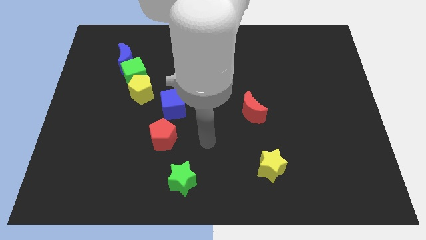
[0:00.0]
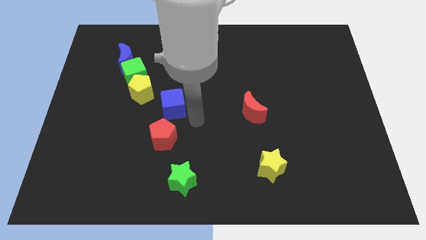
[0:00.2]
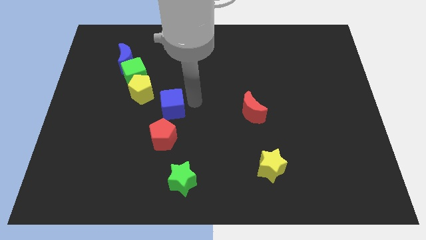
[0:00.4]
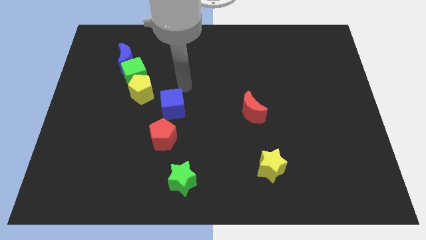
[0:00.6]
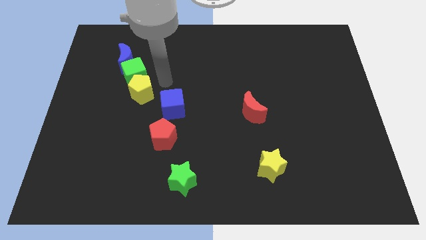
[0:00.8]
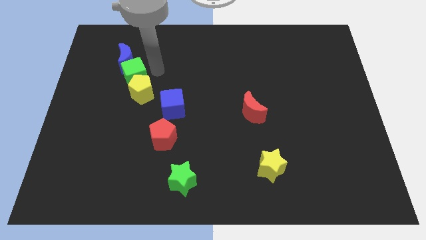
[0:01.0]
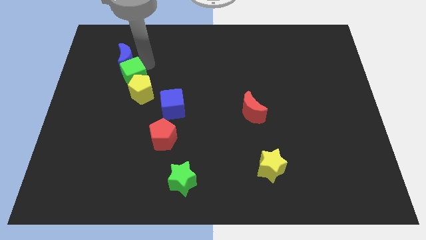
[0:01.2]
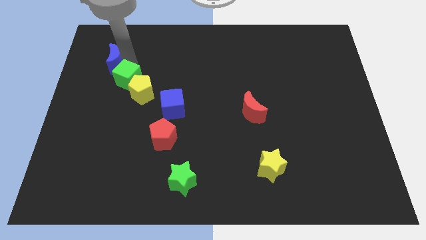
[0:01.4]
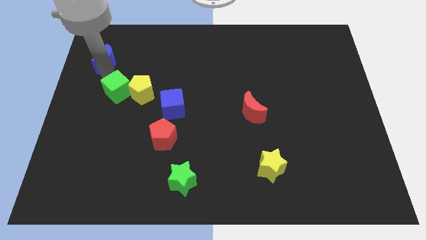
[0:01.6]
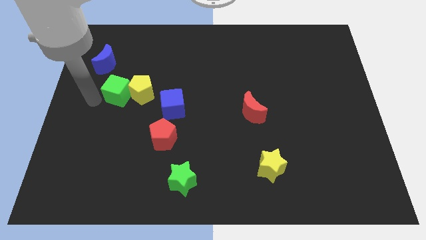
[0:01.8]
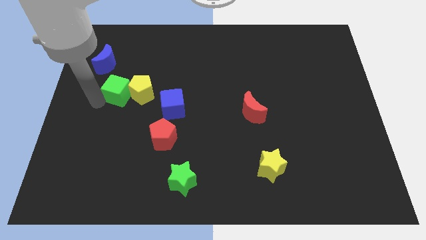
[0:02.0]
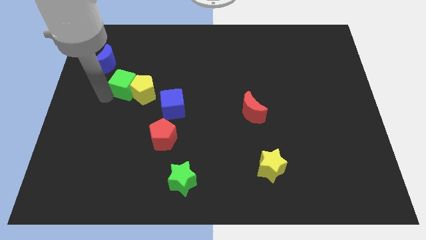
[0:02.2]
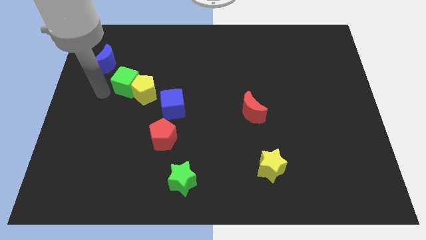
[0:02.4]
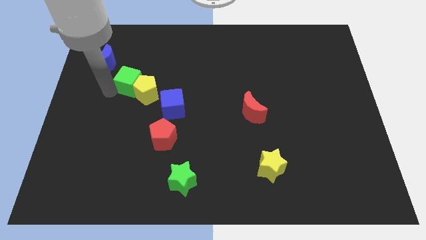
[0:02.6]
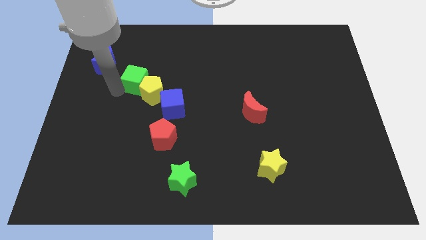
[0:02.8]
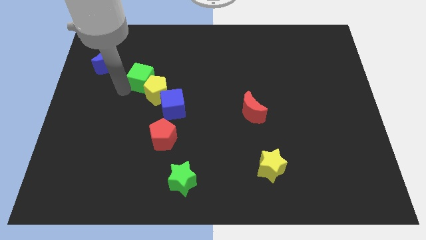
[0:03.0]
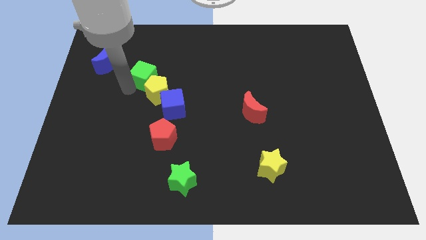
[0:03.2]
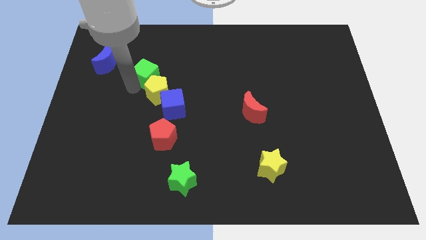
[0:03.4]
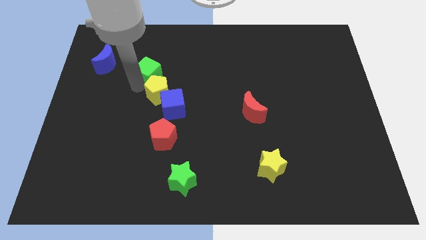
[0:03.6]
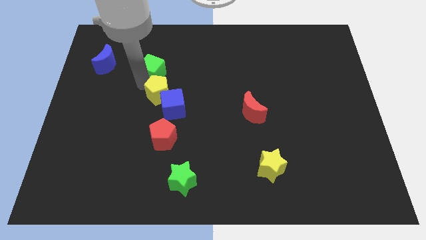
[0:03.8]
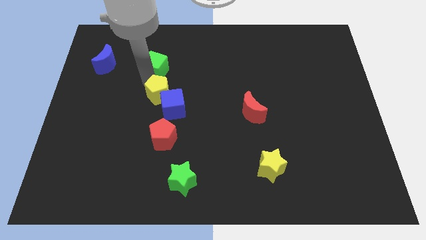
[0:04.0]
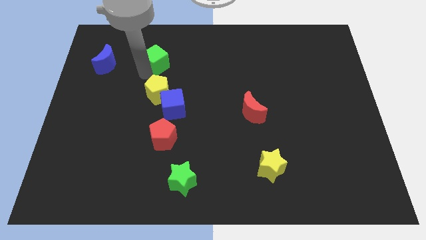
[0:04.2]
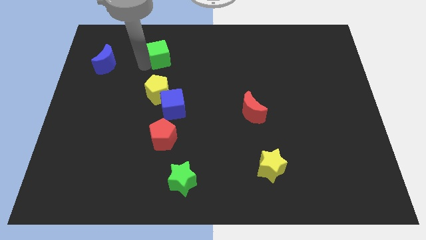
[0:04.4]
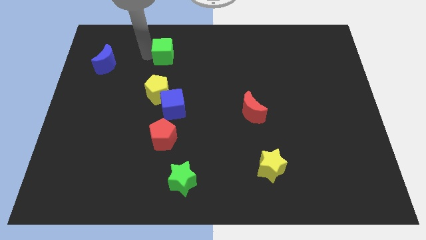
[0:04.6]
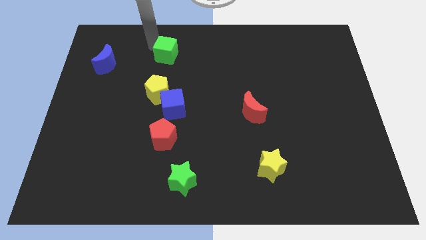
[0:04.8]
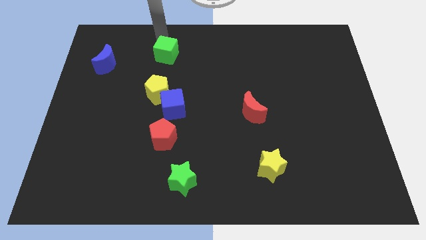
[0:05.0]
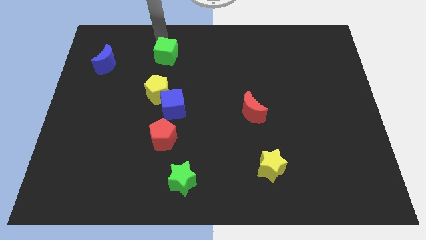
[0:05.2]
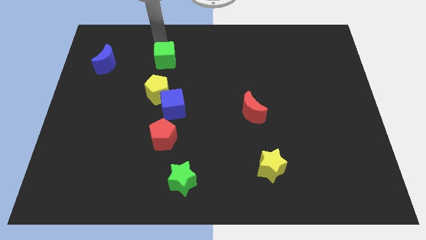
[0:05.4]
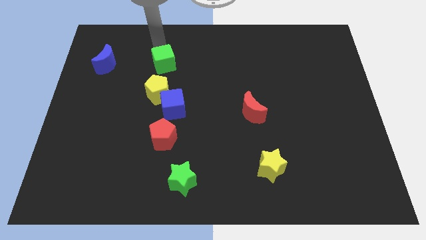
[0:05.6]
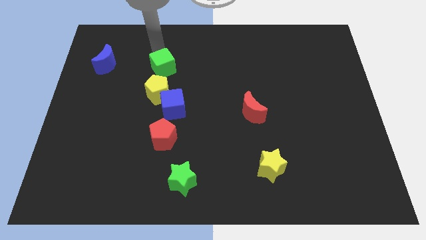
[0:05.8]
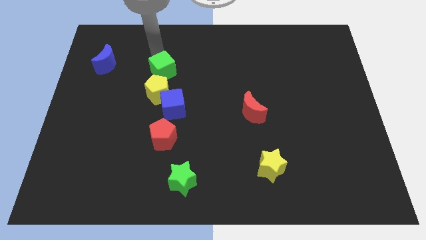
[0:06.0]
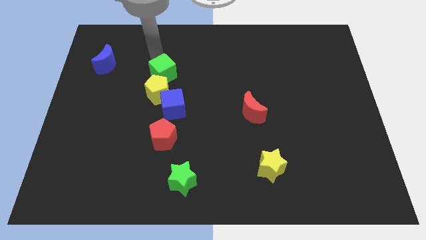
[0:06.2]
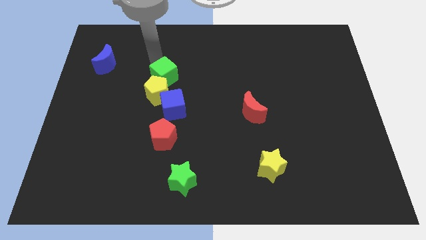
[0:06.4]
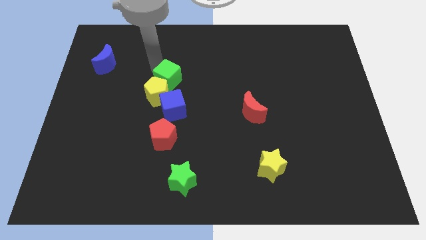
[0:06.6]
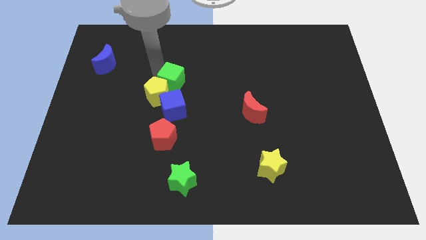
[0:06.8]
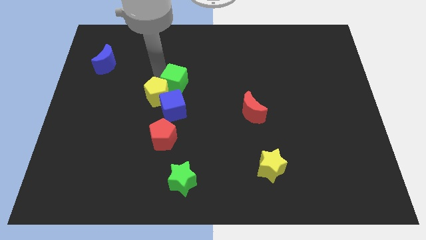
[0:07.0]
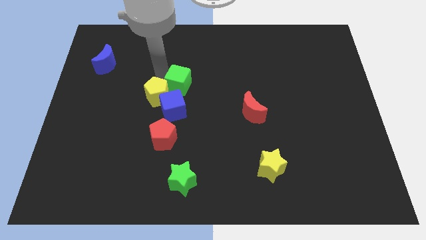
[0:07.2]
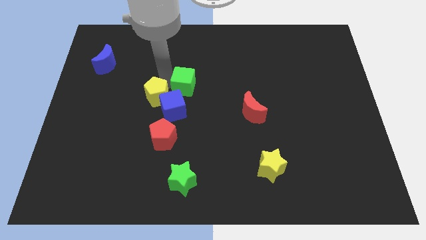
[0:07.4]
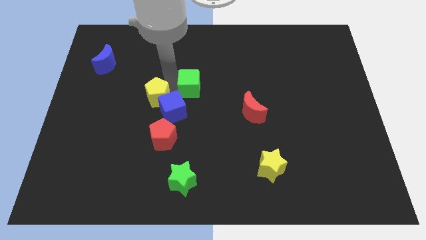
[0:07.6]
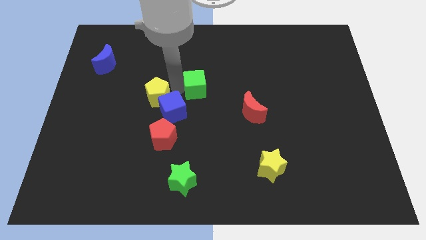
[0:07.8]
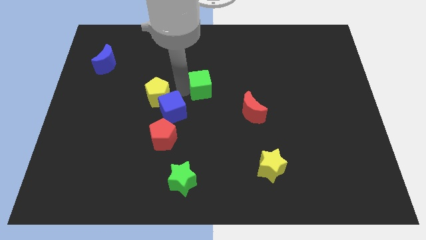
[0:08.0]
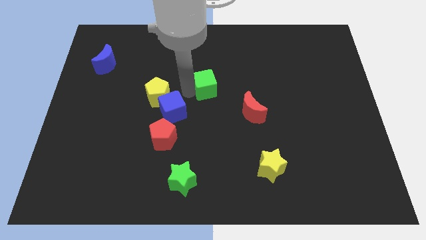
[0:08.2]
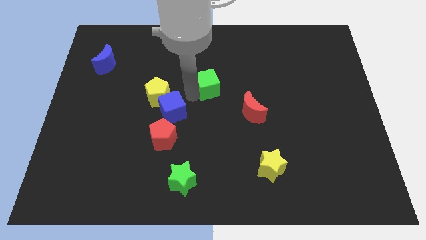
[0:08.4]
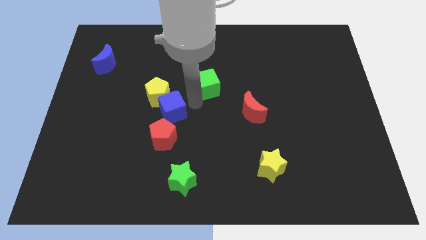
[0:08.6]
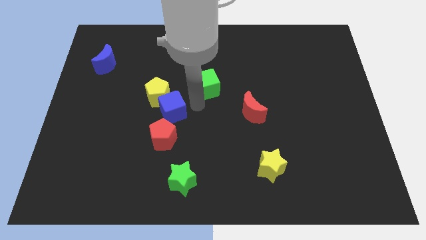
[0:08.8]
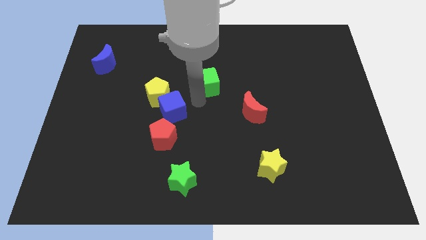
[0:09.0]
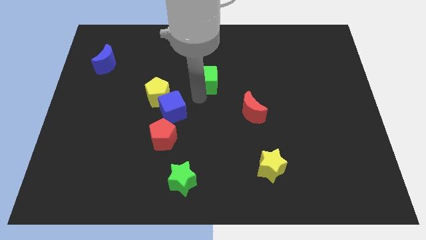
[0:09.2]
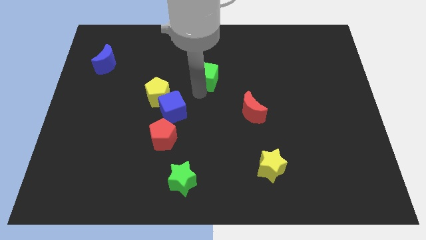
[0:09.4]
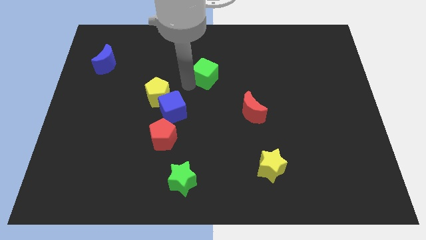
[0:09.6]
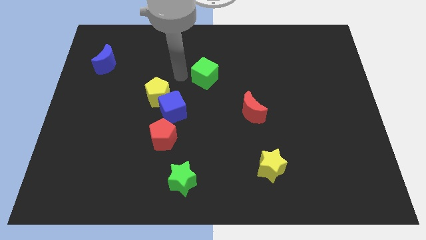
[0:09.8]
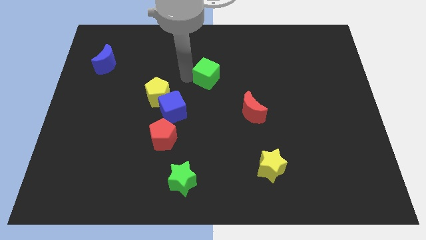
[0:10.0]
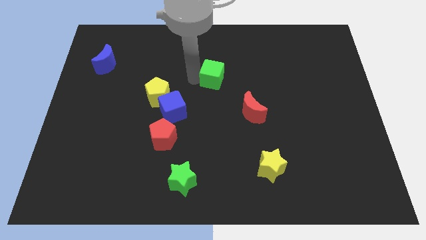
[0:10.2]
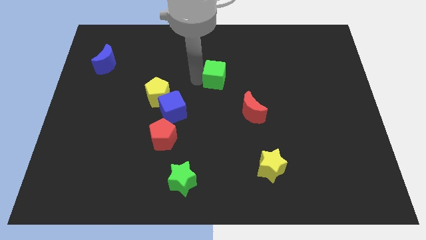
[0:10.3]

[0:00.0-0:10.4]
move the green cube to the right

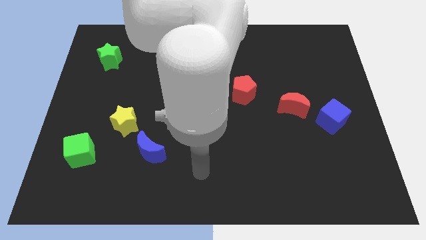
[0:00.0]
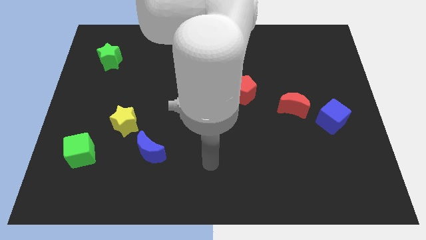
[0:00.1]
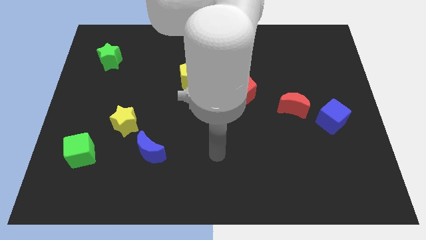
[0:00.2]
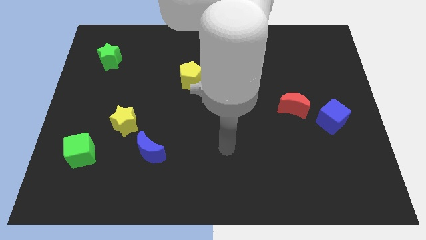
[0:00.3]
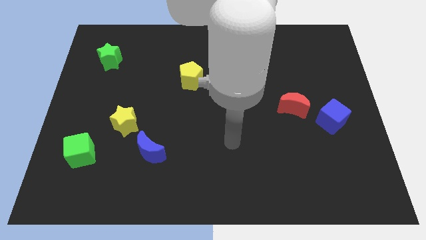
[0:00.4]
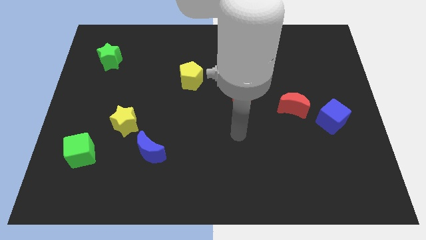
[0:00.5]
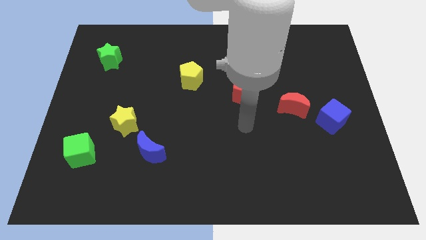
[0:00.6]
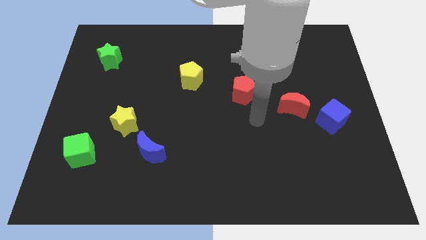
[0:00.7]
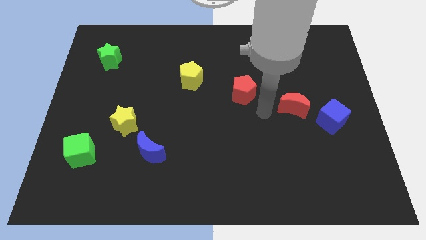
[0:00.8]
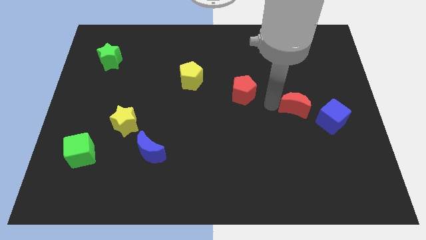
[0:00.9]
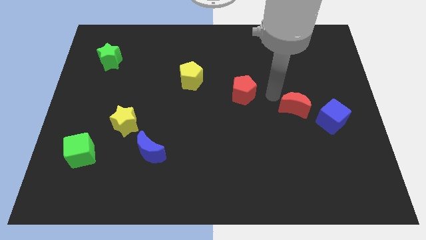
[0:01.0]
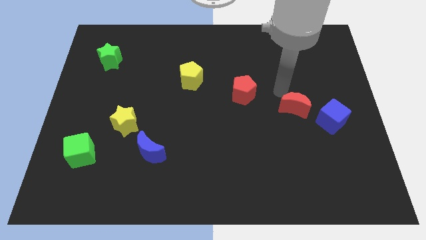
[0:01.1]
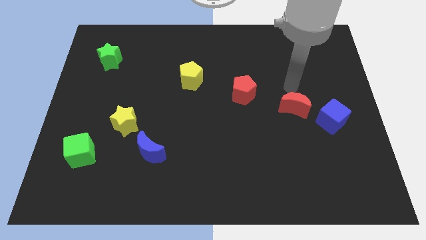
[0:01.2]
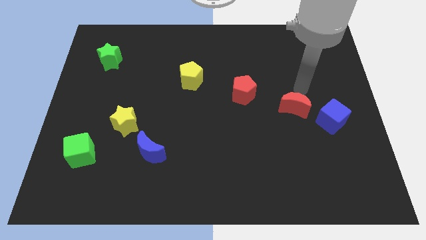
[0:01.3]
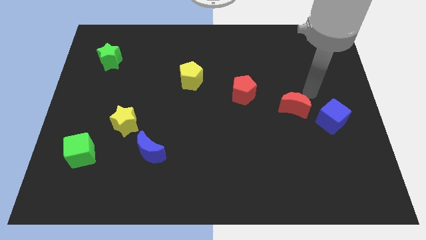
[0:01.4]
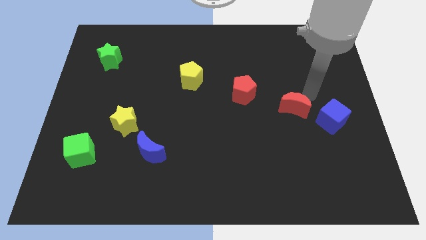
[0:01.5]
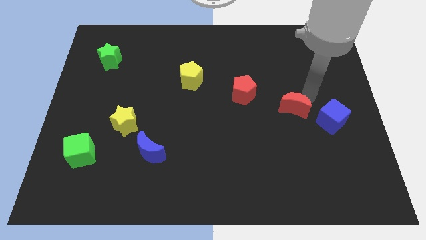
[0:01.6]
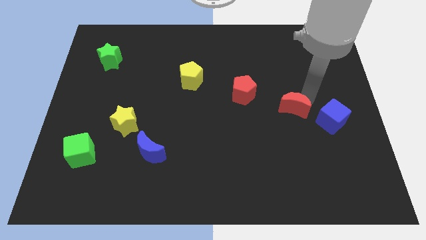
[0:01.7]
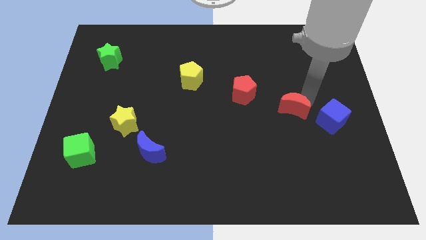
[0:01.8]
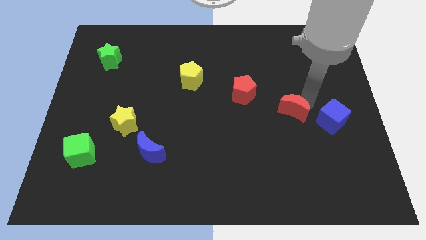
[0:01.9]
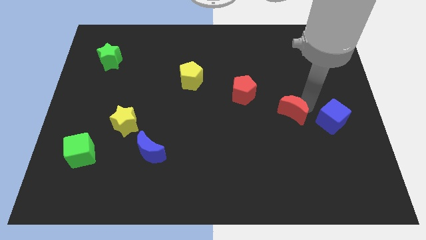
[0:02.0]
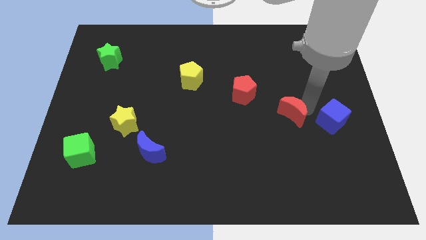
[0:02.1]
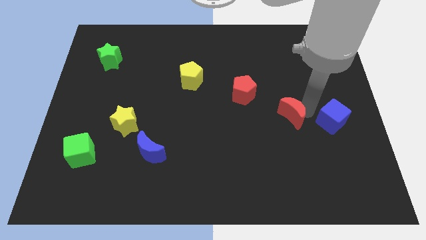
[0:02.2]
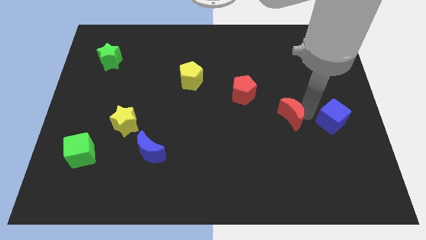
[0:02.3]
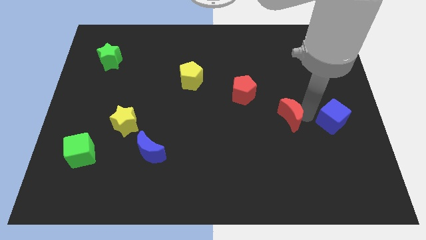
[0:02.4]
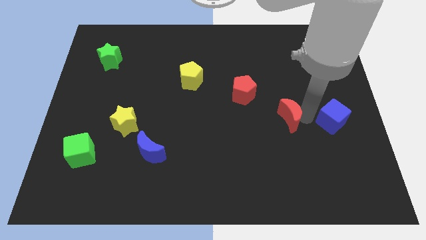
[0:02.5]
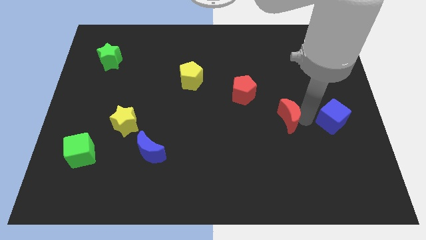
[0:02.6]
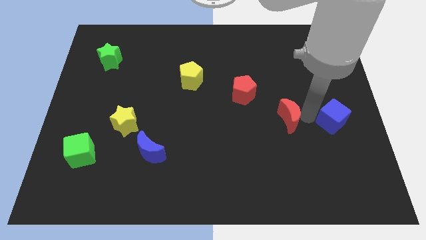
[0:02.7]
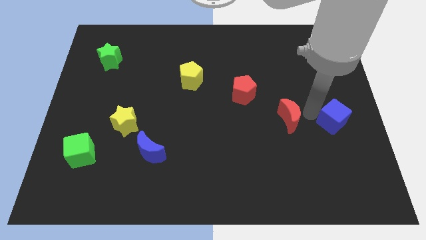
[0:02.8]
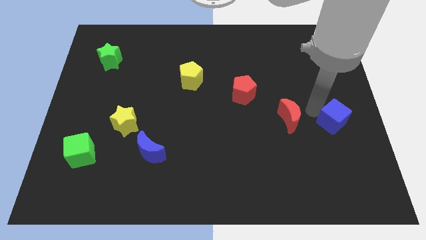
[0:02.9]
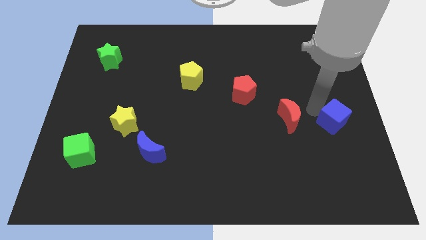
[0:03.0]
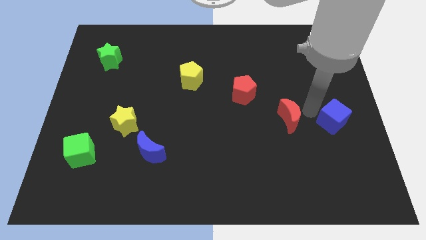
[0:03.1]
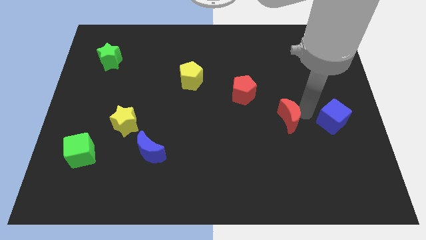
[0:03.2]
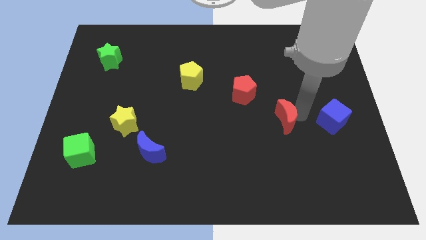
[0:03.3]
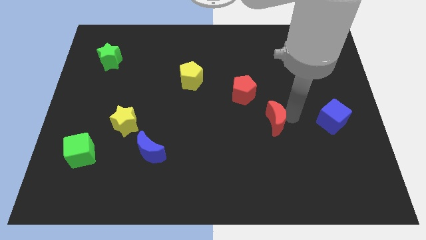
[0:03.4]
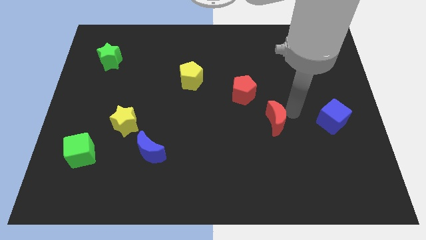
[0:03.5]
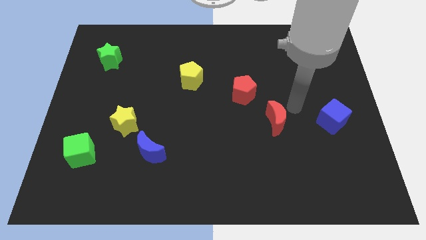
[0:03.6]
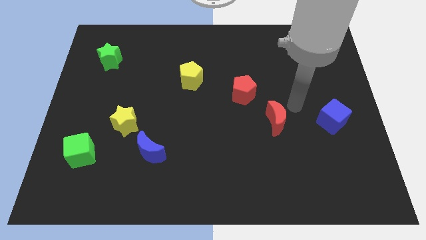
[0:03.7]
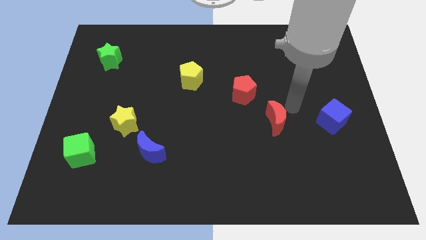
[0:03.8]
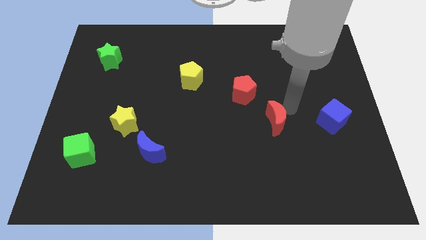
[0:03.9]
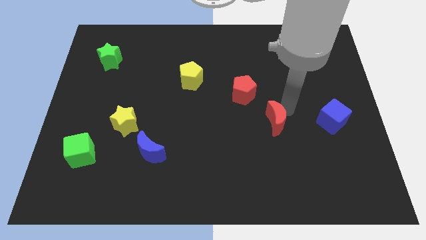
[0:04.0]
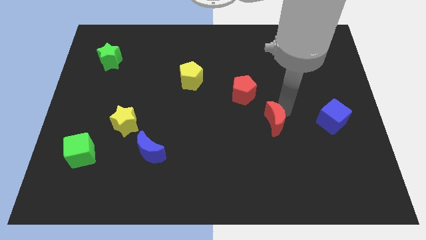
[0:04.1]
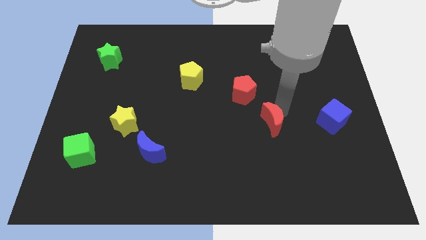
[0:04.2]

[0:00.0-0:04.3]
slightly move the red moon downwards and to the left diagonally
